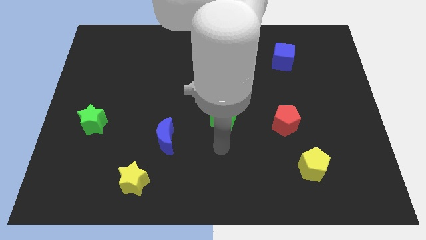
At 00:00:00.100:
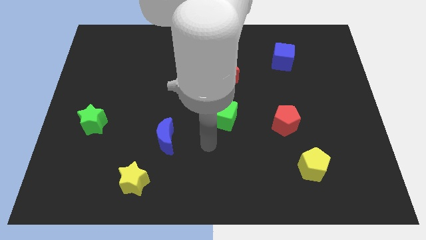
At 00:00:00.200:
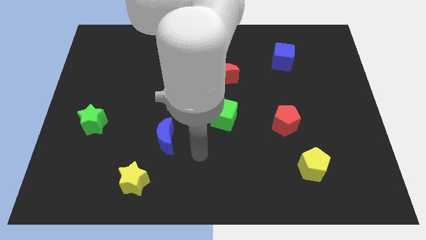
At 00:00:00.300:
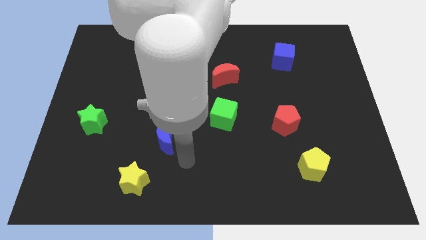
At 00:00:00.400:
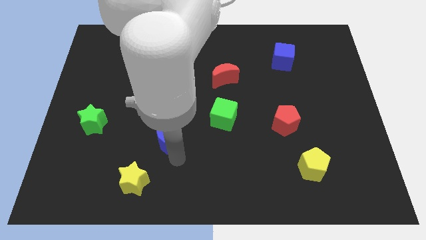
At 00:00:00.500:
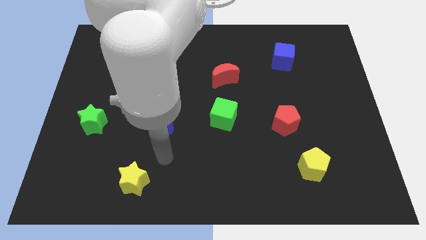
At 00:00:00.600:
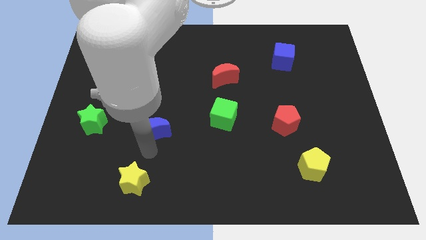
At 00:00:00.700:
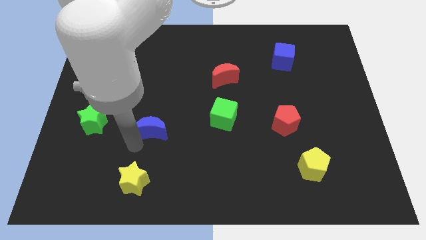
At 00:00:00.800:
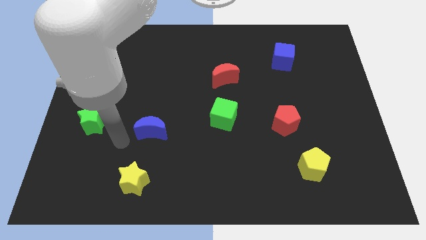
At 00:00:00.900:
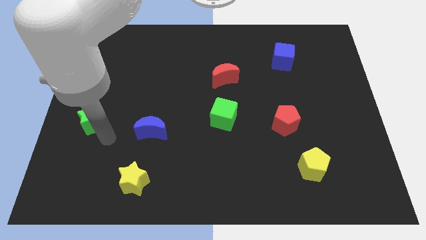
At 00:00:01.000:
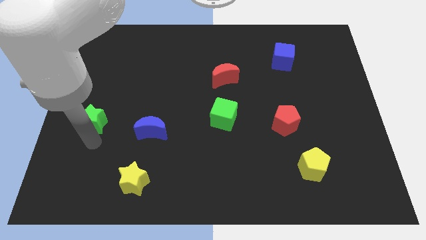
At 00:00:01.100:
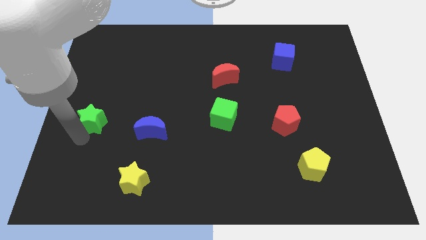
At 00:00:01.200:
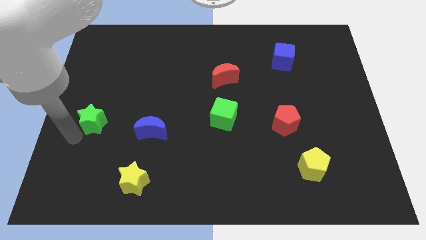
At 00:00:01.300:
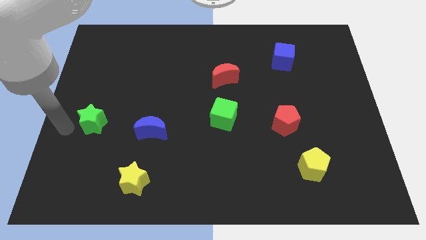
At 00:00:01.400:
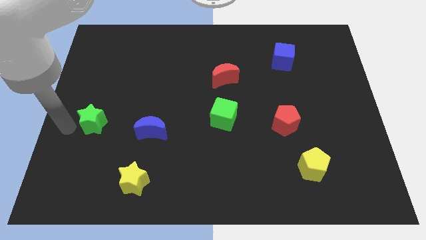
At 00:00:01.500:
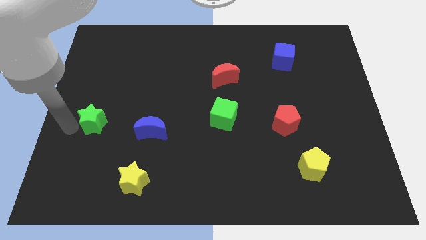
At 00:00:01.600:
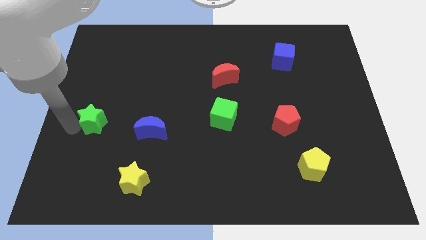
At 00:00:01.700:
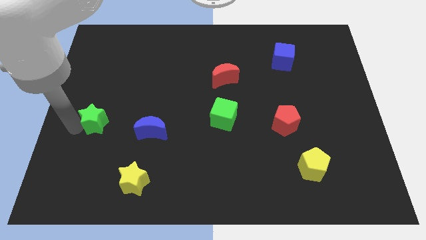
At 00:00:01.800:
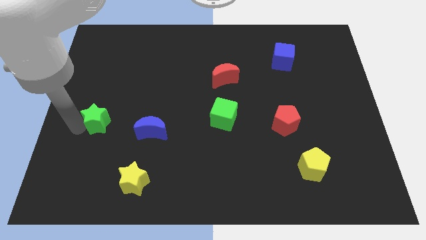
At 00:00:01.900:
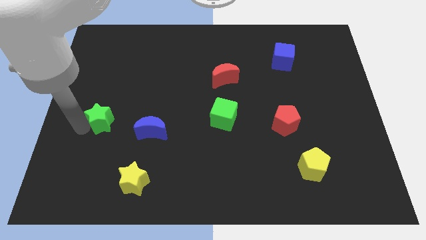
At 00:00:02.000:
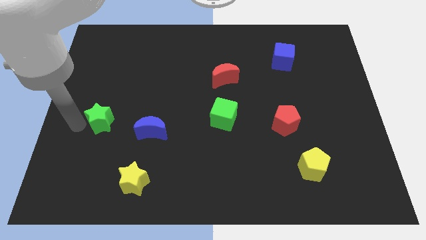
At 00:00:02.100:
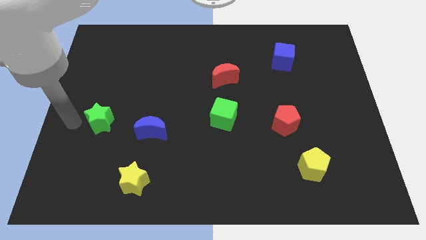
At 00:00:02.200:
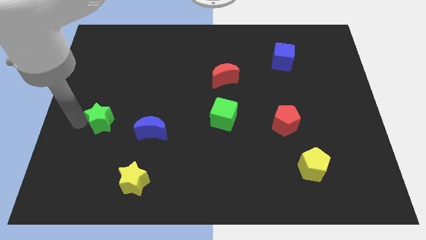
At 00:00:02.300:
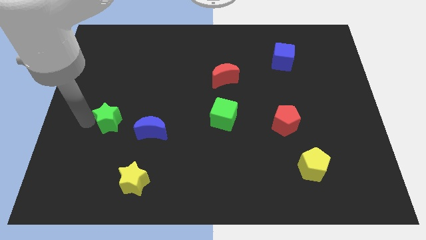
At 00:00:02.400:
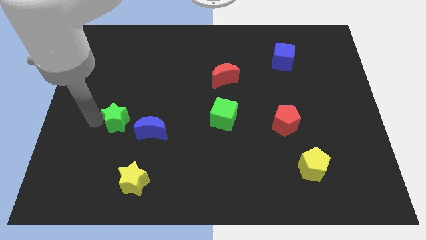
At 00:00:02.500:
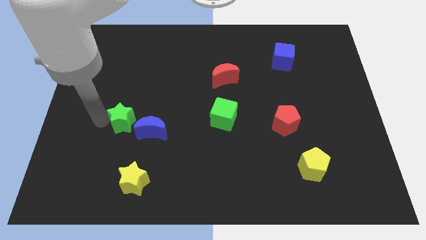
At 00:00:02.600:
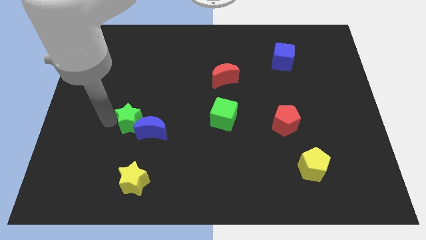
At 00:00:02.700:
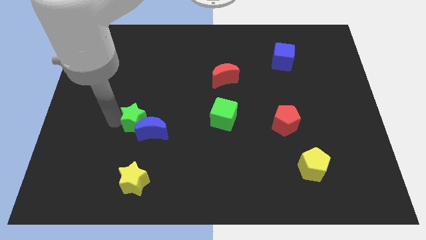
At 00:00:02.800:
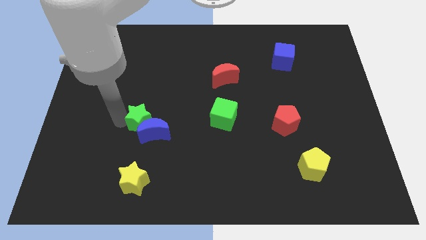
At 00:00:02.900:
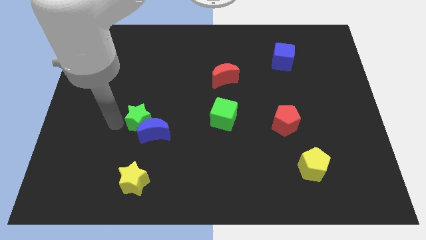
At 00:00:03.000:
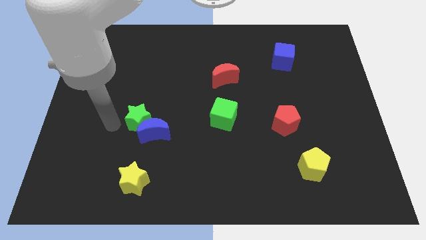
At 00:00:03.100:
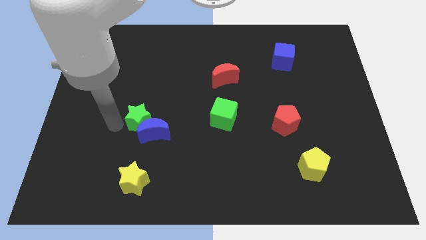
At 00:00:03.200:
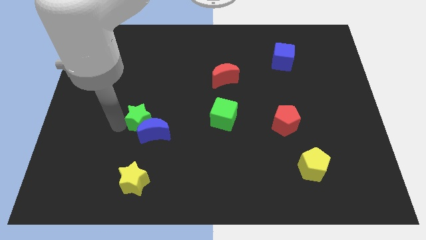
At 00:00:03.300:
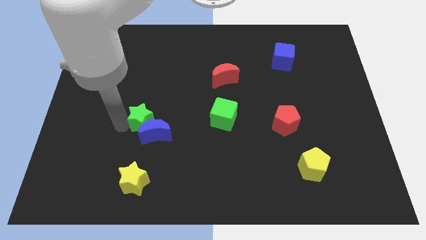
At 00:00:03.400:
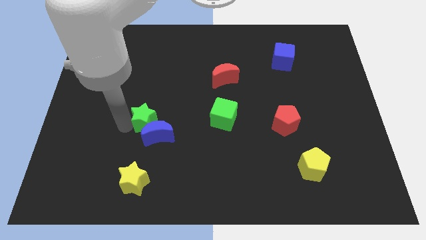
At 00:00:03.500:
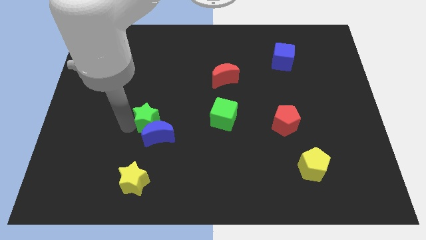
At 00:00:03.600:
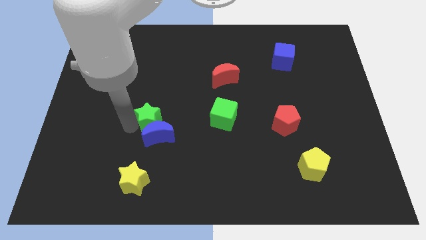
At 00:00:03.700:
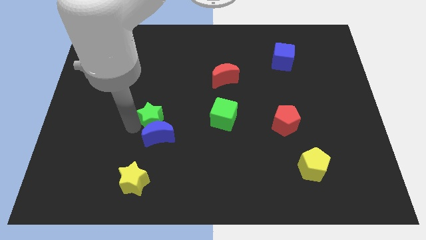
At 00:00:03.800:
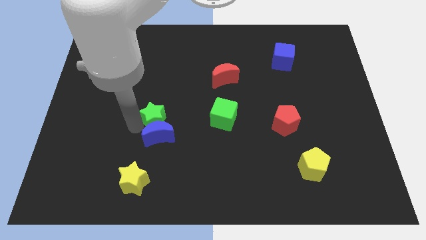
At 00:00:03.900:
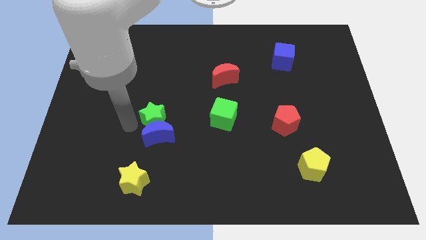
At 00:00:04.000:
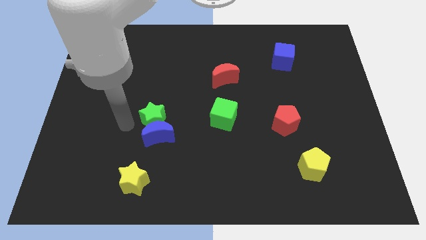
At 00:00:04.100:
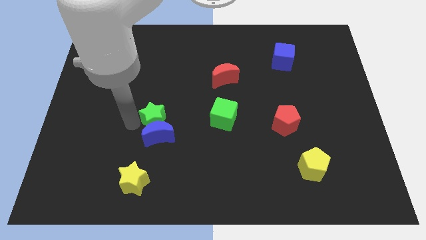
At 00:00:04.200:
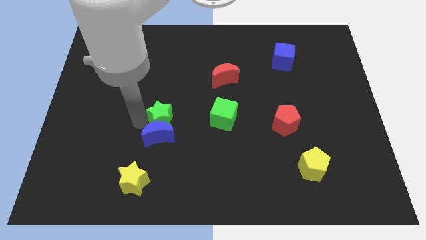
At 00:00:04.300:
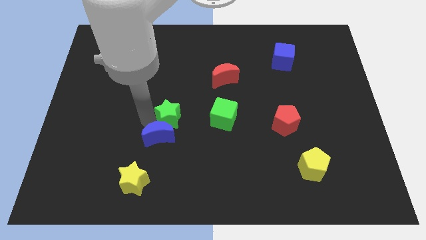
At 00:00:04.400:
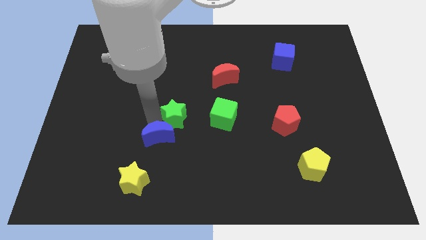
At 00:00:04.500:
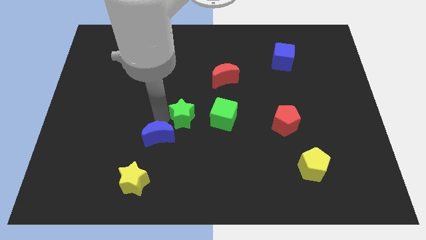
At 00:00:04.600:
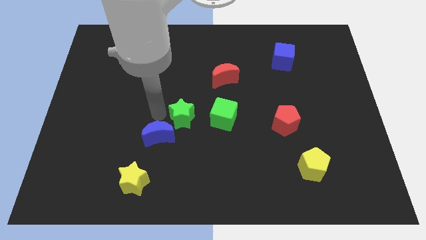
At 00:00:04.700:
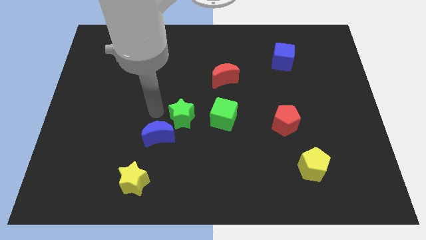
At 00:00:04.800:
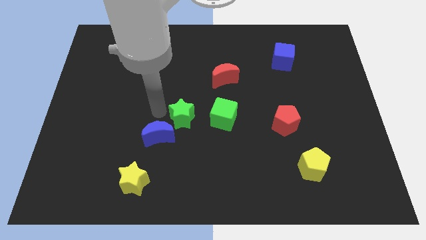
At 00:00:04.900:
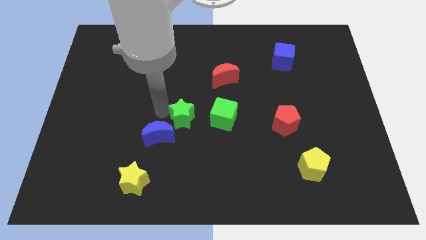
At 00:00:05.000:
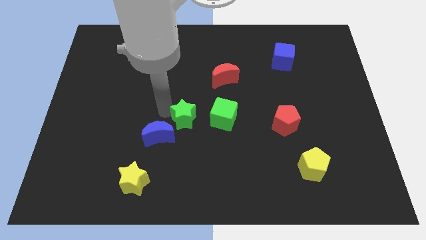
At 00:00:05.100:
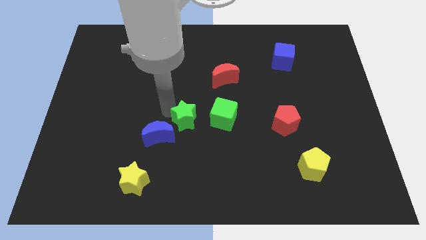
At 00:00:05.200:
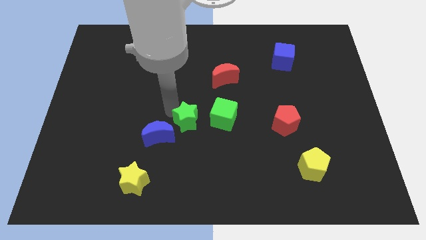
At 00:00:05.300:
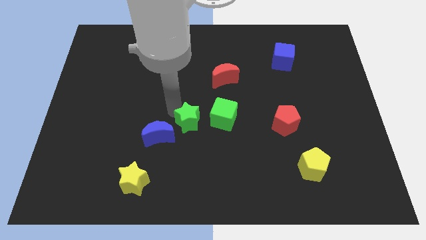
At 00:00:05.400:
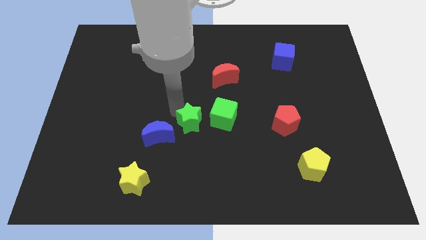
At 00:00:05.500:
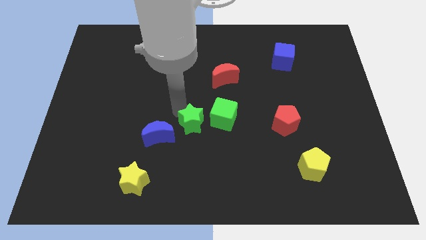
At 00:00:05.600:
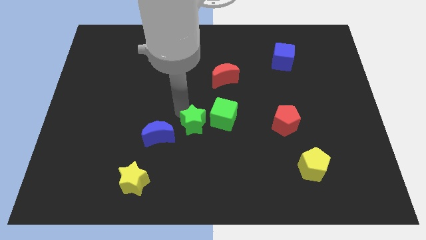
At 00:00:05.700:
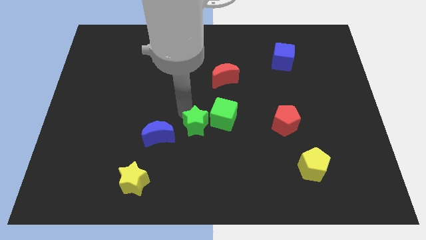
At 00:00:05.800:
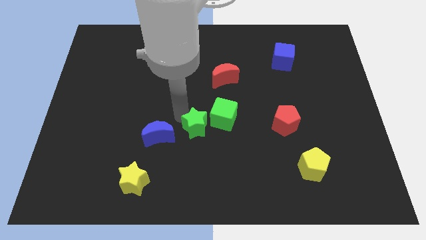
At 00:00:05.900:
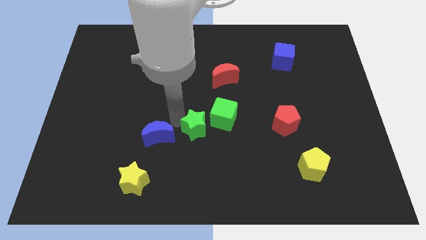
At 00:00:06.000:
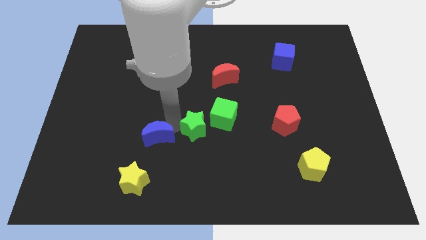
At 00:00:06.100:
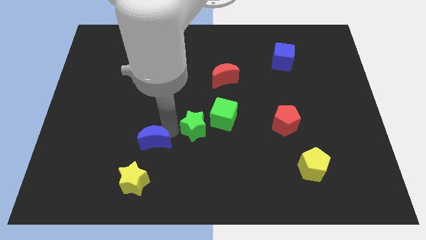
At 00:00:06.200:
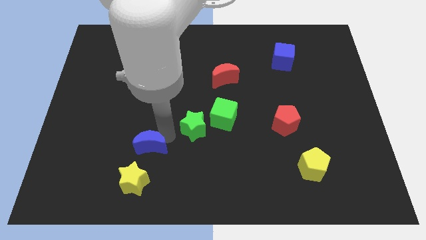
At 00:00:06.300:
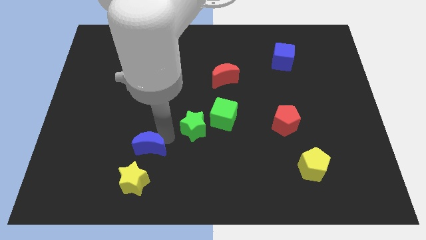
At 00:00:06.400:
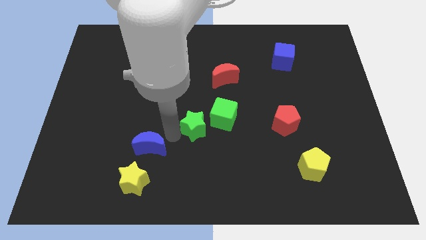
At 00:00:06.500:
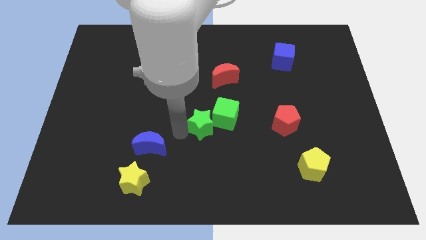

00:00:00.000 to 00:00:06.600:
slide the green star towards the green cube
